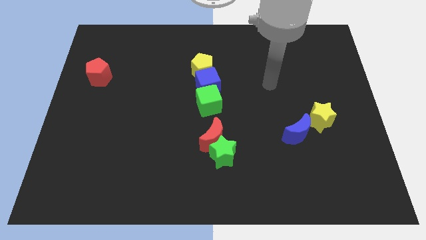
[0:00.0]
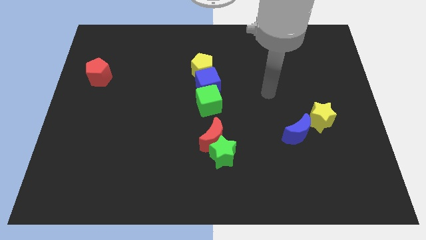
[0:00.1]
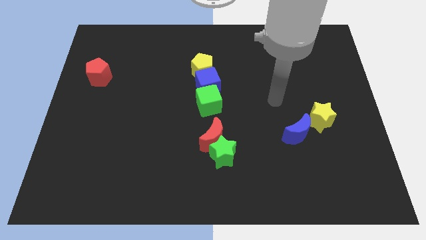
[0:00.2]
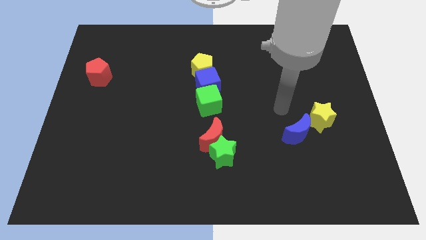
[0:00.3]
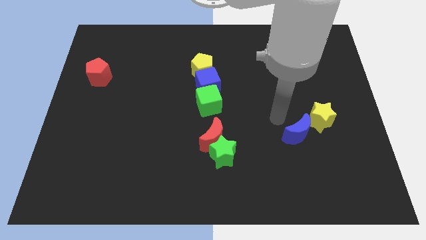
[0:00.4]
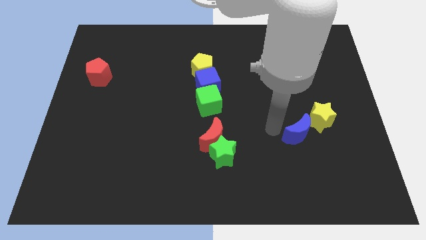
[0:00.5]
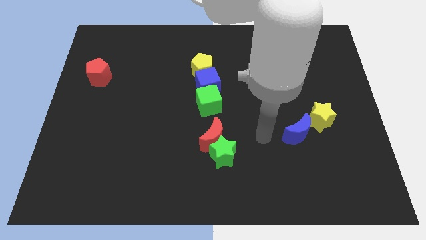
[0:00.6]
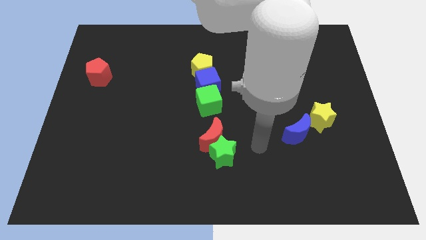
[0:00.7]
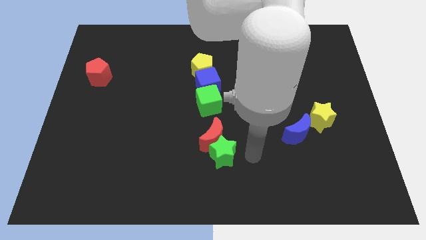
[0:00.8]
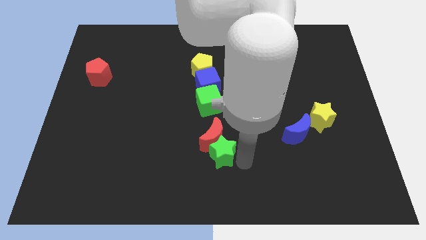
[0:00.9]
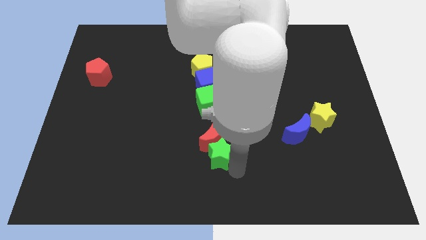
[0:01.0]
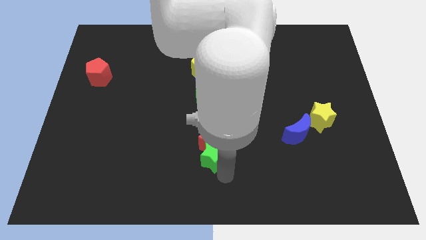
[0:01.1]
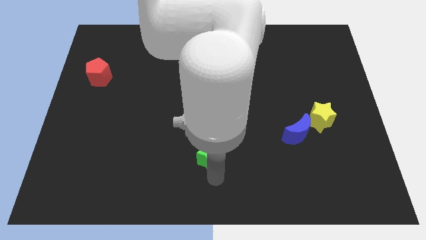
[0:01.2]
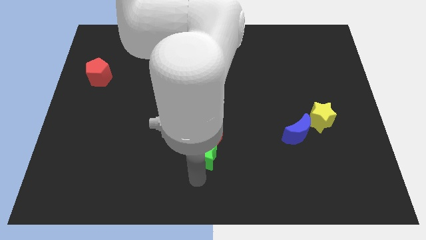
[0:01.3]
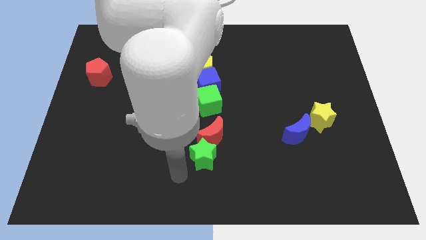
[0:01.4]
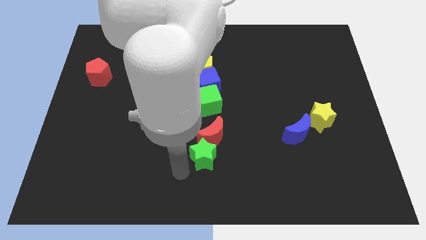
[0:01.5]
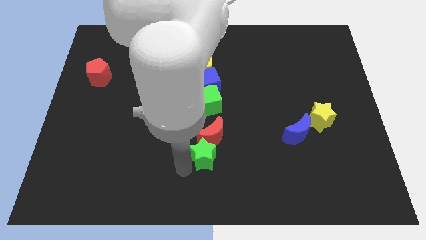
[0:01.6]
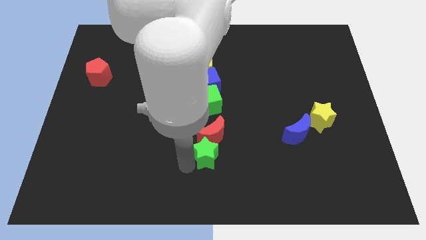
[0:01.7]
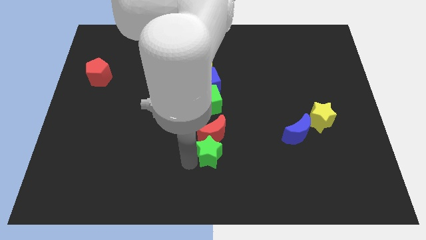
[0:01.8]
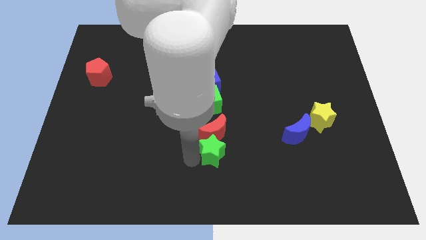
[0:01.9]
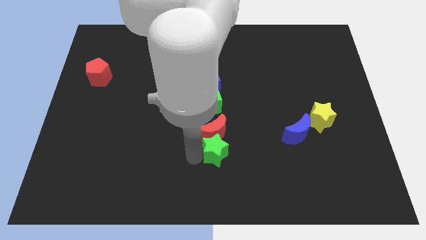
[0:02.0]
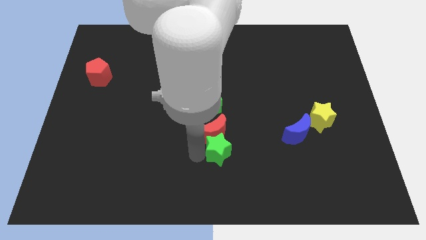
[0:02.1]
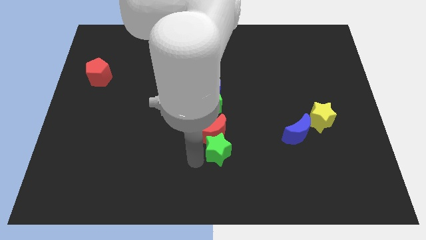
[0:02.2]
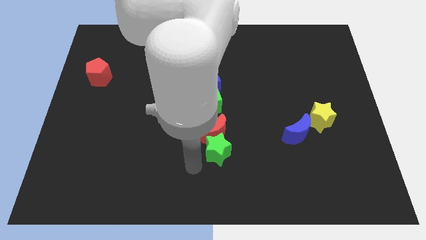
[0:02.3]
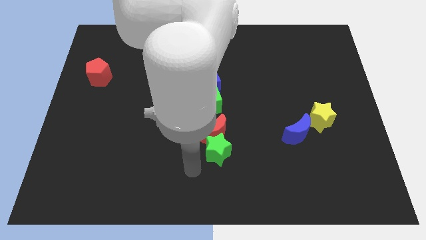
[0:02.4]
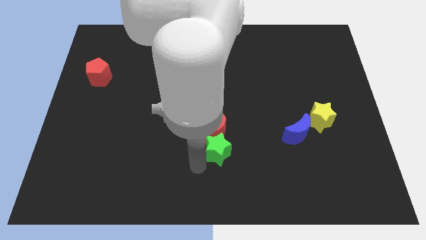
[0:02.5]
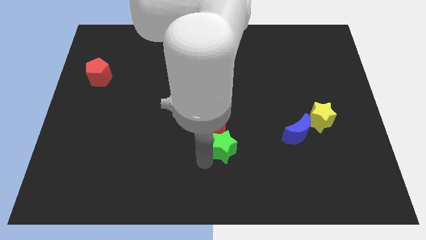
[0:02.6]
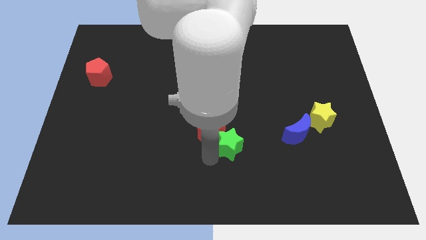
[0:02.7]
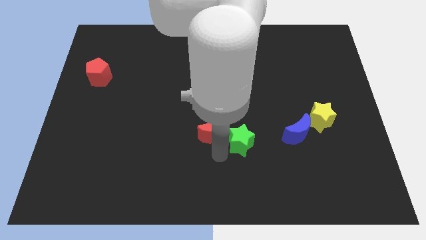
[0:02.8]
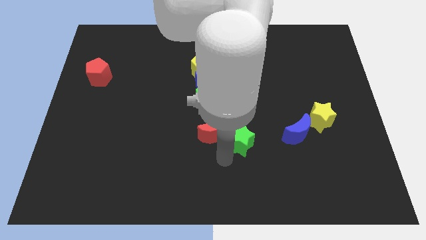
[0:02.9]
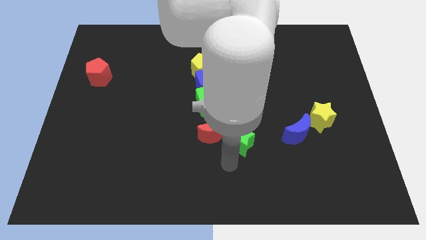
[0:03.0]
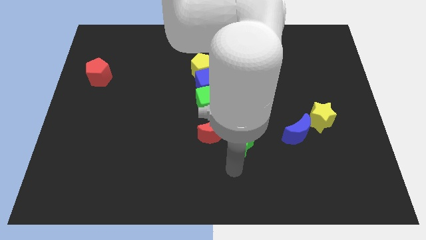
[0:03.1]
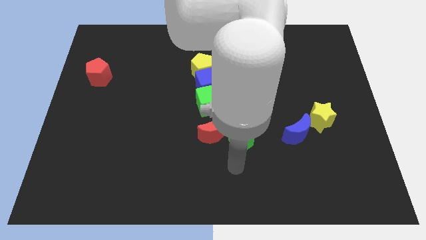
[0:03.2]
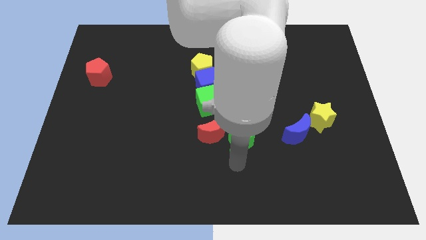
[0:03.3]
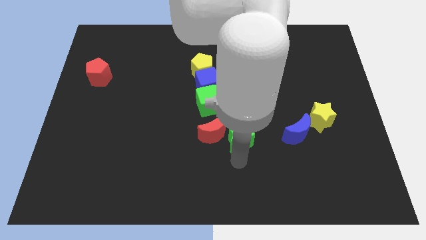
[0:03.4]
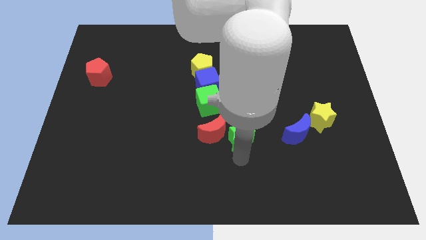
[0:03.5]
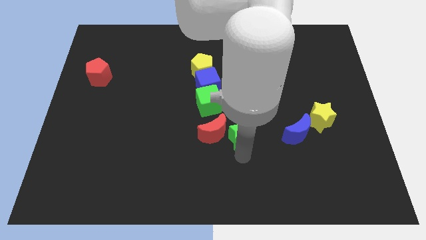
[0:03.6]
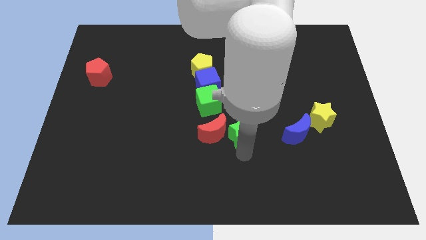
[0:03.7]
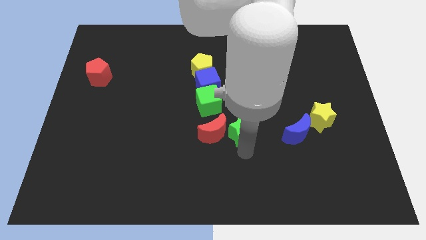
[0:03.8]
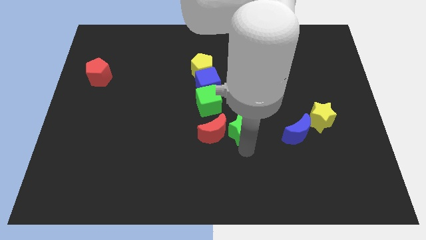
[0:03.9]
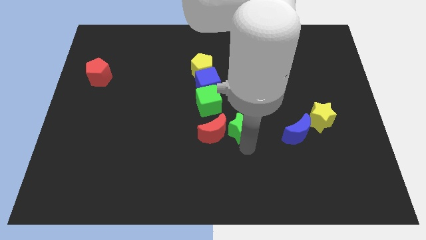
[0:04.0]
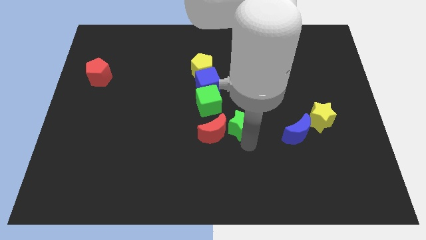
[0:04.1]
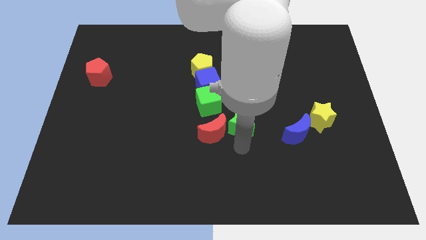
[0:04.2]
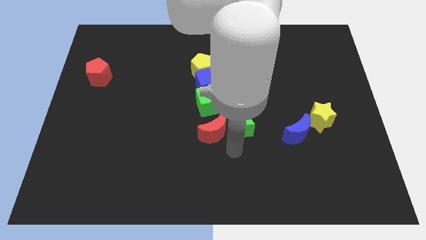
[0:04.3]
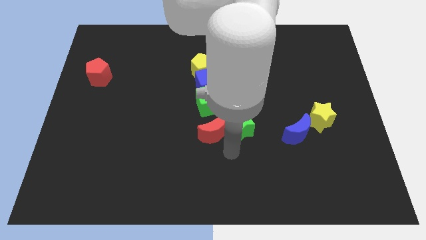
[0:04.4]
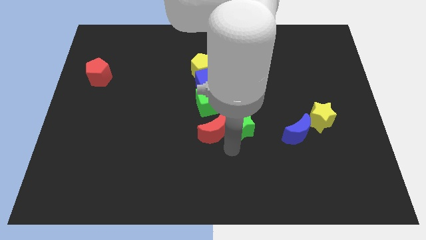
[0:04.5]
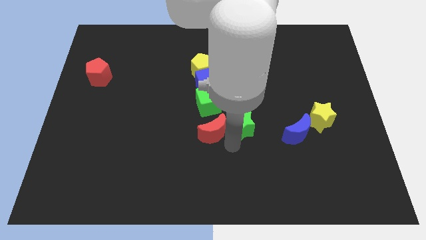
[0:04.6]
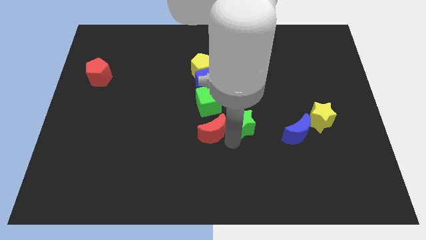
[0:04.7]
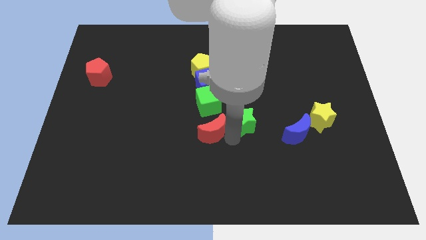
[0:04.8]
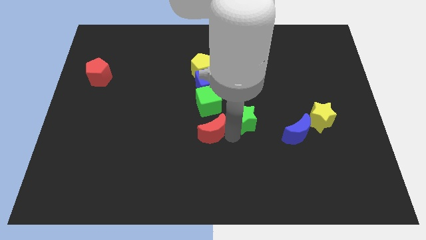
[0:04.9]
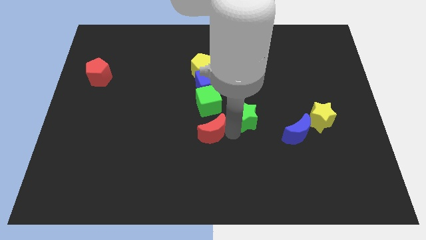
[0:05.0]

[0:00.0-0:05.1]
put the green star just right of the green cube

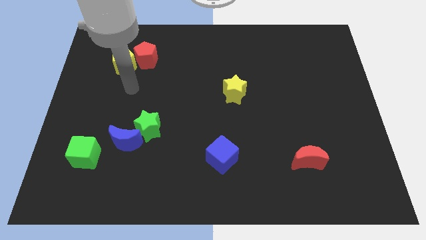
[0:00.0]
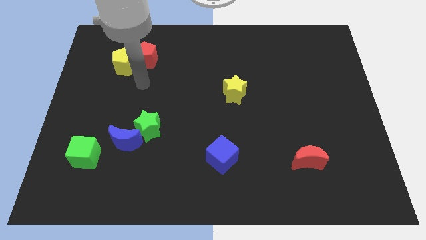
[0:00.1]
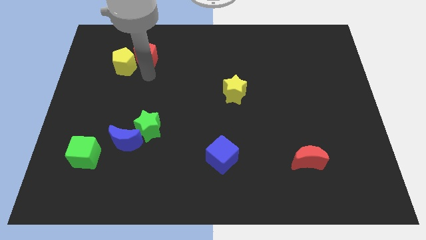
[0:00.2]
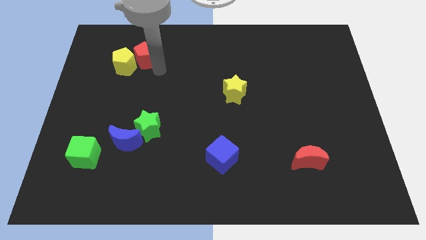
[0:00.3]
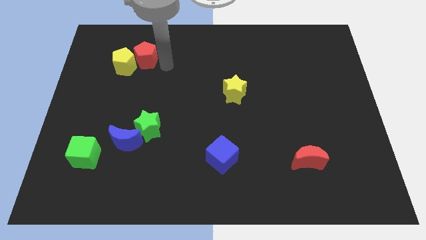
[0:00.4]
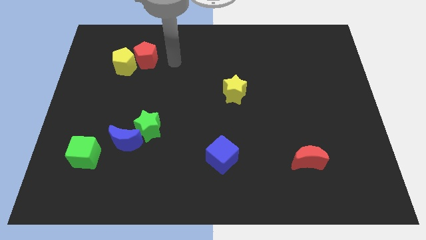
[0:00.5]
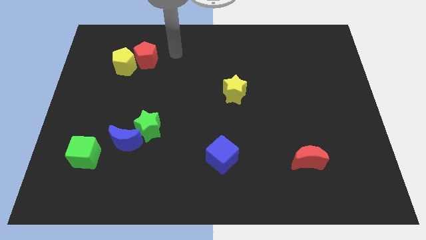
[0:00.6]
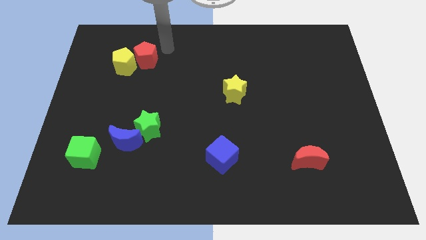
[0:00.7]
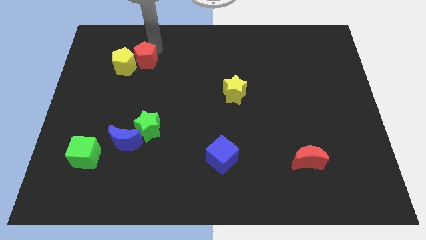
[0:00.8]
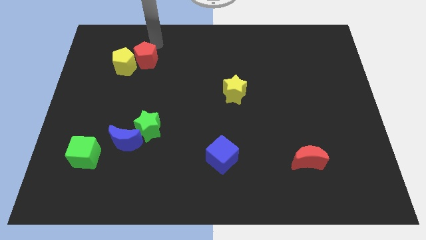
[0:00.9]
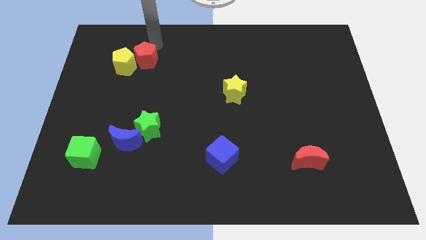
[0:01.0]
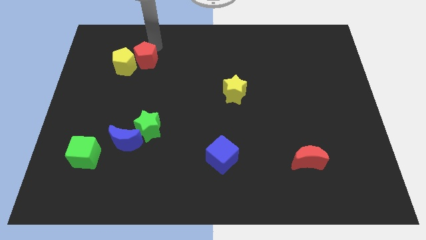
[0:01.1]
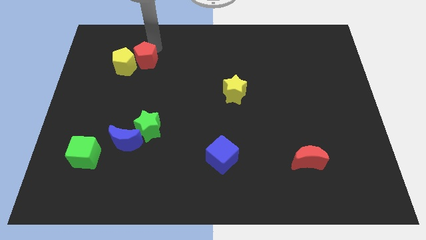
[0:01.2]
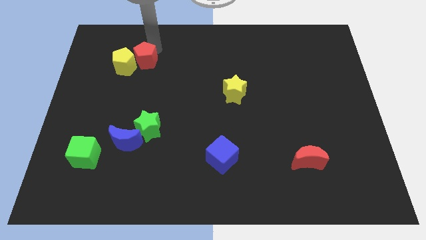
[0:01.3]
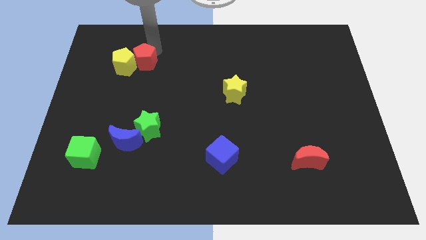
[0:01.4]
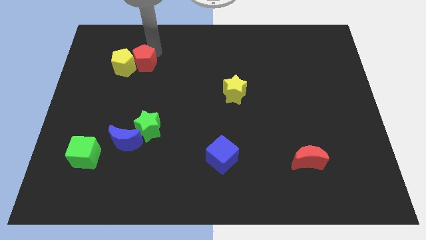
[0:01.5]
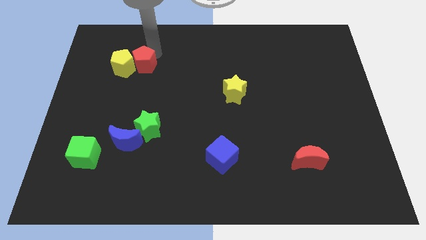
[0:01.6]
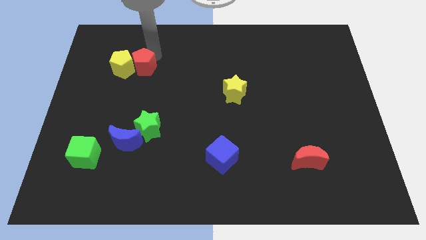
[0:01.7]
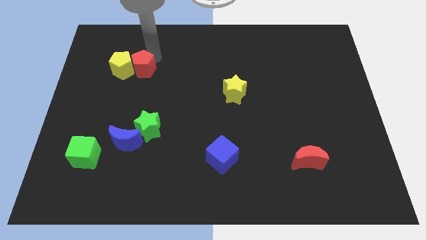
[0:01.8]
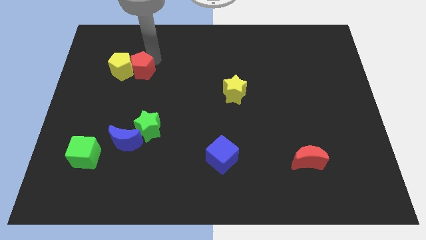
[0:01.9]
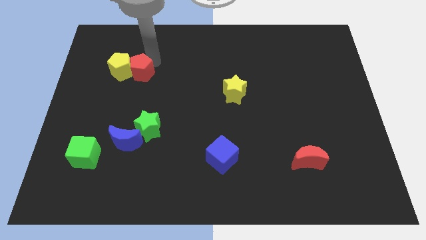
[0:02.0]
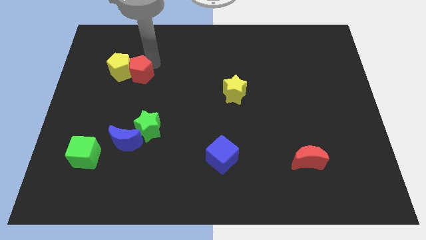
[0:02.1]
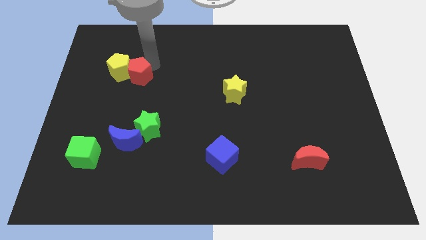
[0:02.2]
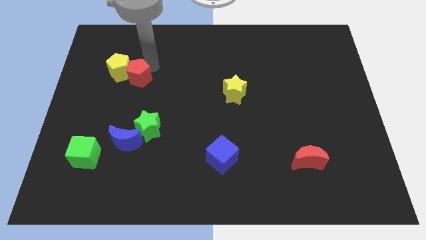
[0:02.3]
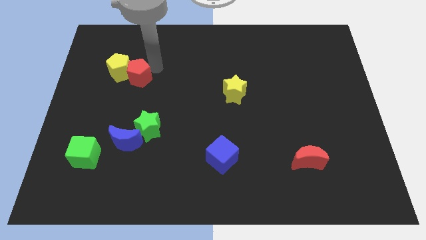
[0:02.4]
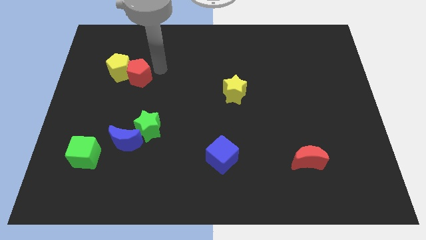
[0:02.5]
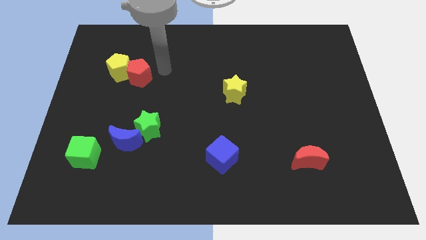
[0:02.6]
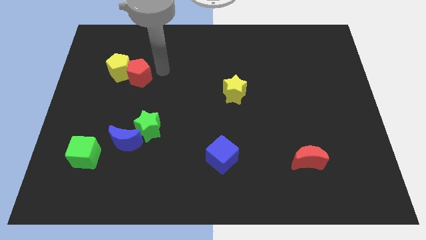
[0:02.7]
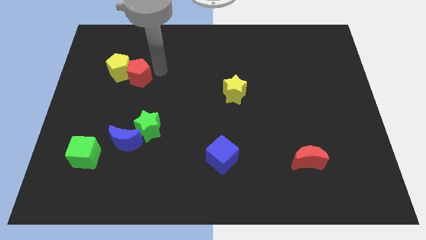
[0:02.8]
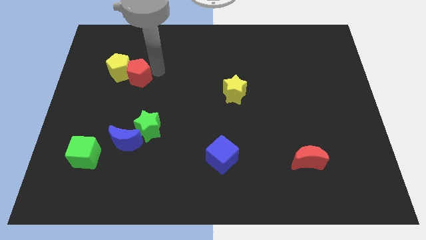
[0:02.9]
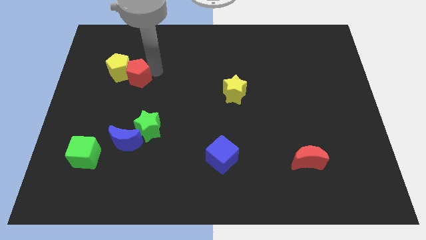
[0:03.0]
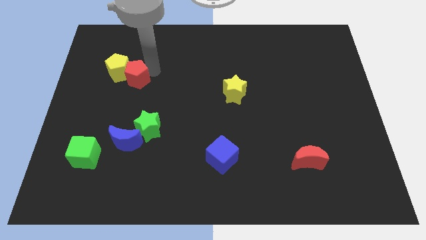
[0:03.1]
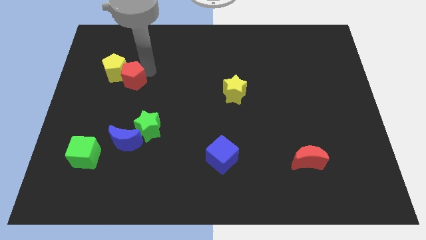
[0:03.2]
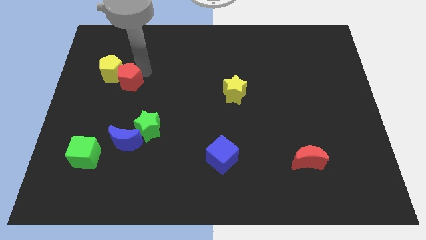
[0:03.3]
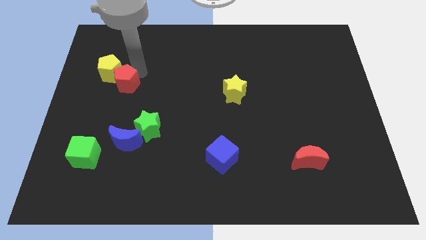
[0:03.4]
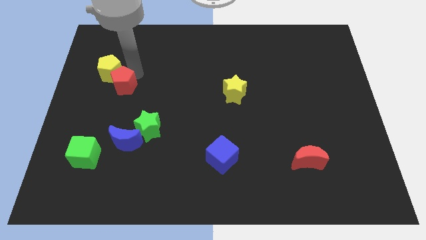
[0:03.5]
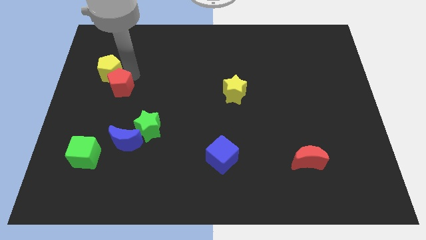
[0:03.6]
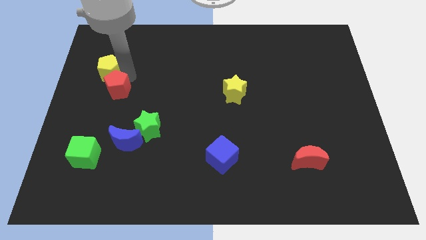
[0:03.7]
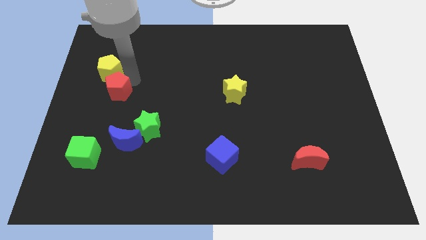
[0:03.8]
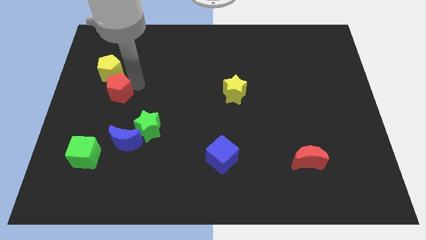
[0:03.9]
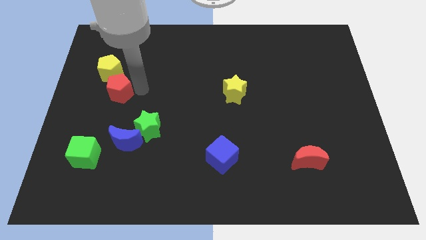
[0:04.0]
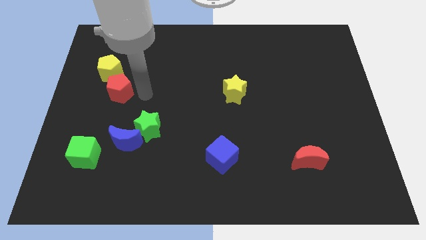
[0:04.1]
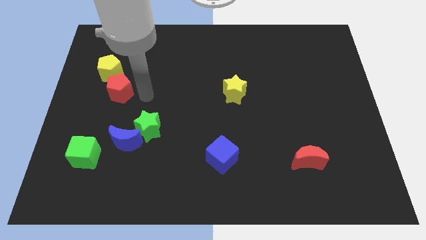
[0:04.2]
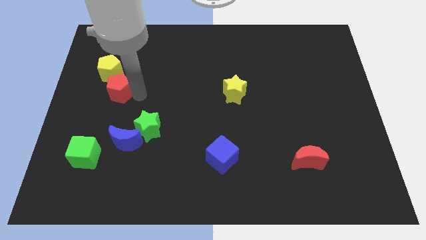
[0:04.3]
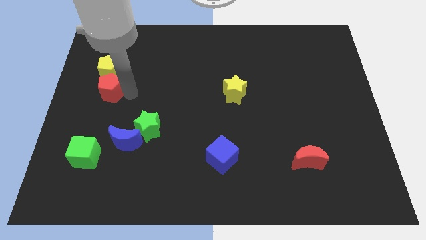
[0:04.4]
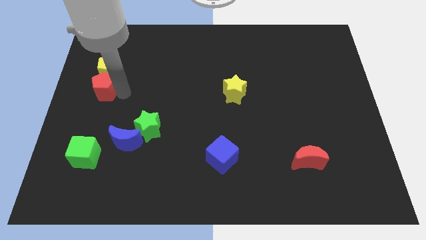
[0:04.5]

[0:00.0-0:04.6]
put the red pentagon diagonally down and to the left of the yellow pentagon
